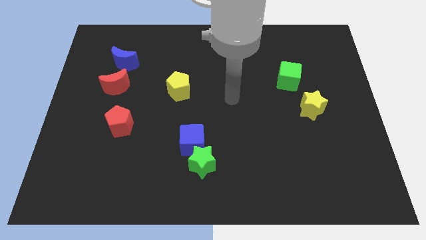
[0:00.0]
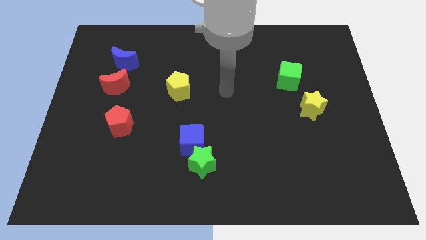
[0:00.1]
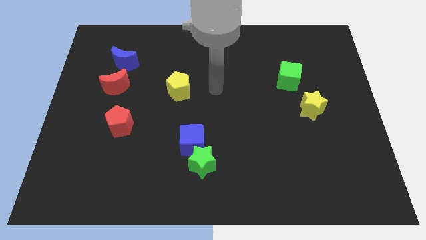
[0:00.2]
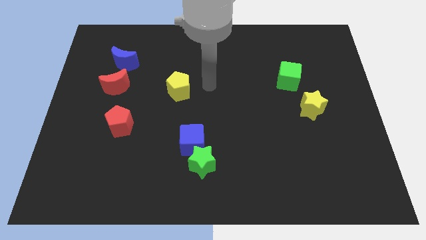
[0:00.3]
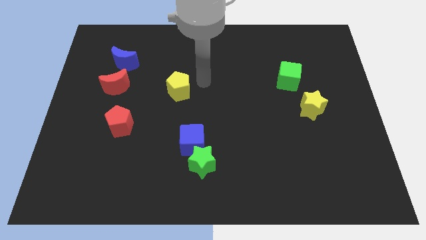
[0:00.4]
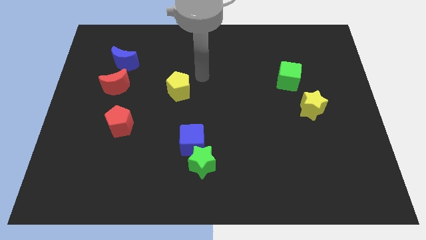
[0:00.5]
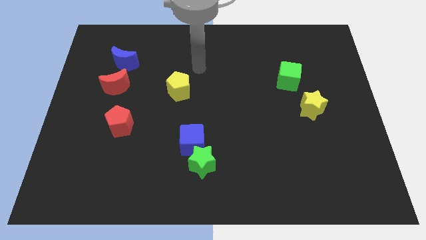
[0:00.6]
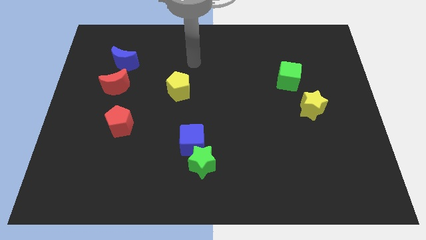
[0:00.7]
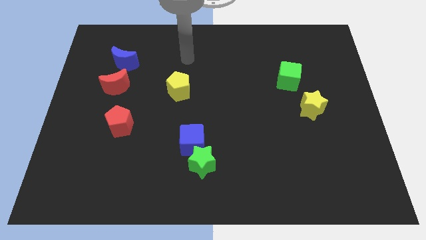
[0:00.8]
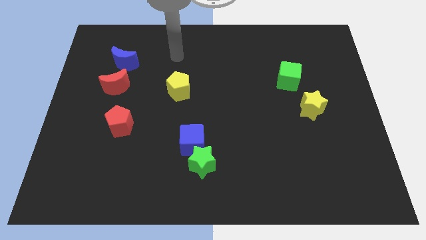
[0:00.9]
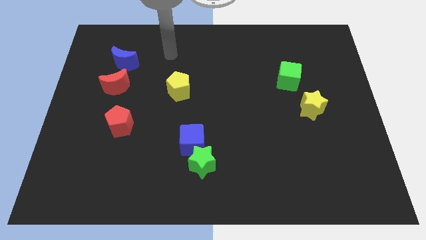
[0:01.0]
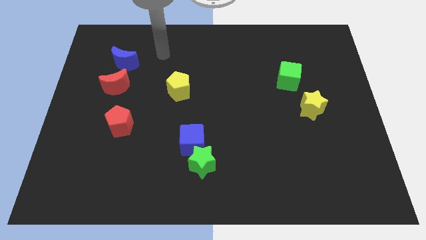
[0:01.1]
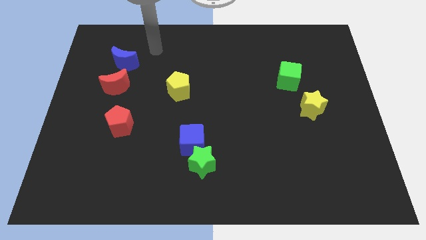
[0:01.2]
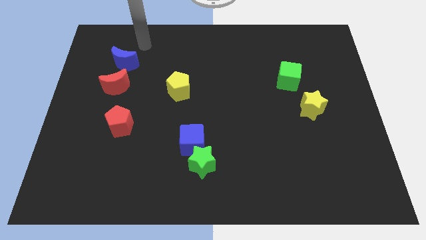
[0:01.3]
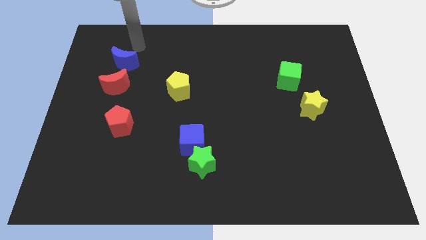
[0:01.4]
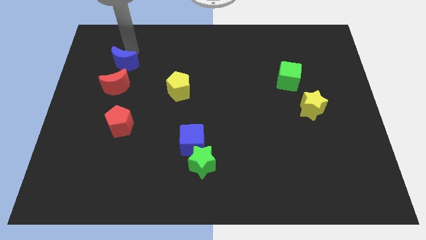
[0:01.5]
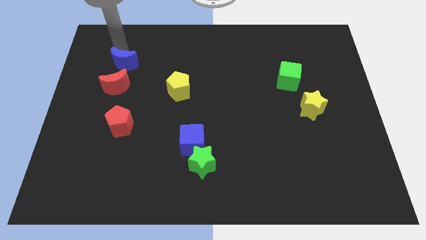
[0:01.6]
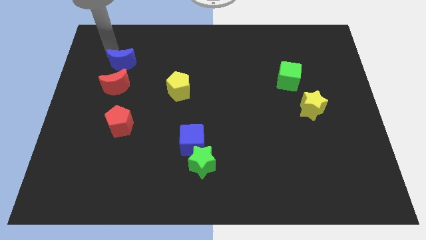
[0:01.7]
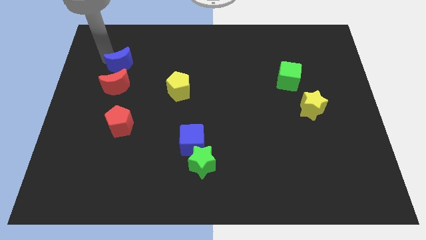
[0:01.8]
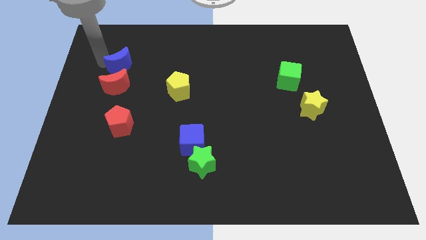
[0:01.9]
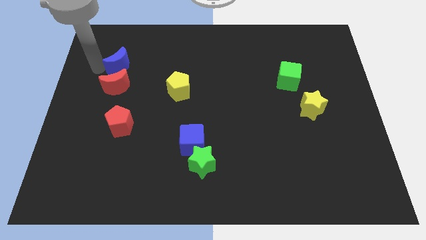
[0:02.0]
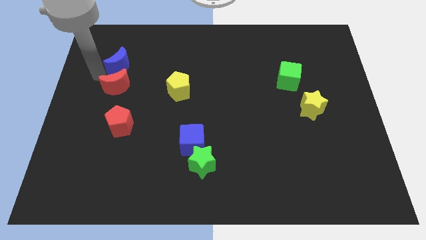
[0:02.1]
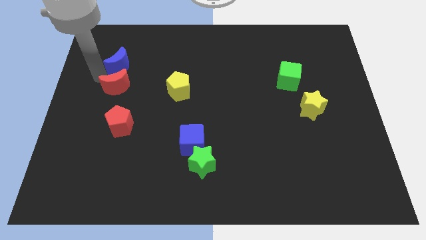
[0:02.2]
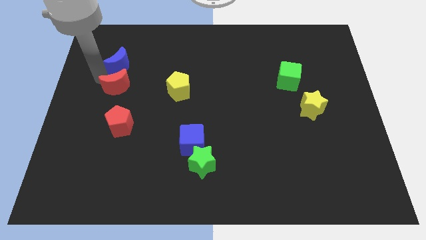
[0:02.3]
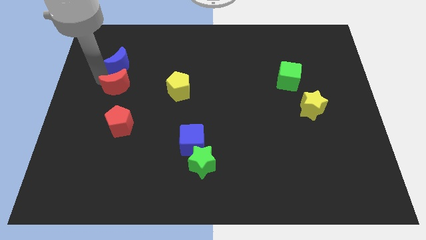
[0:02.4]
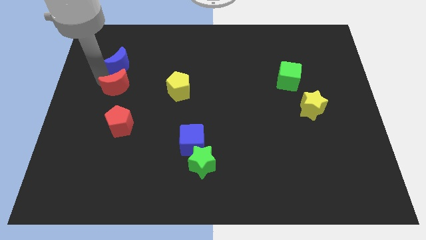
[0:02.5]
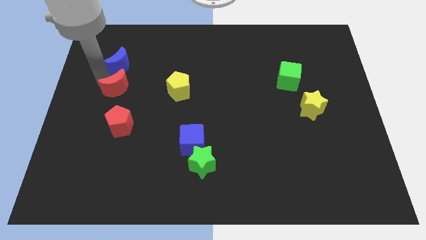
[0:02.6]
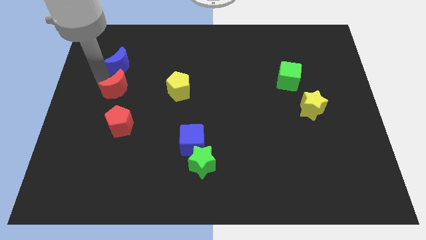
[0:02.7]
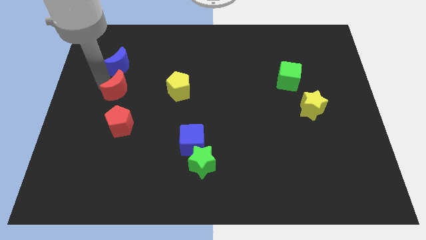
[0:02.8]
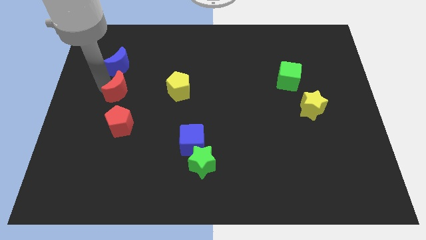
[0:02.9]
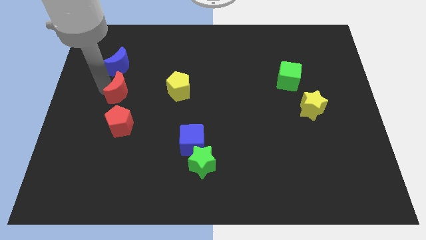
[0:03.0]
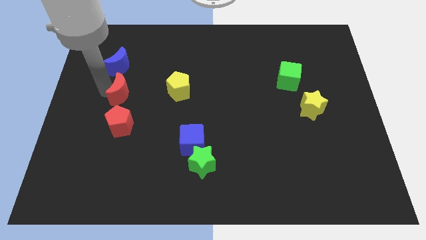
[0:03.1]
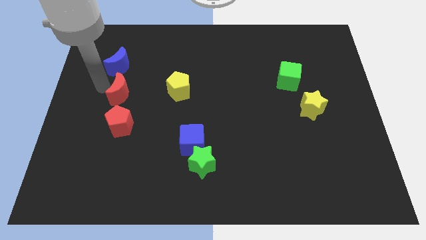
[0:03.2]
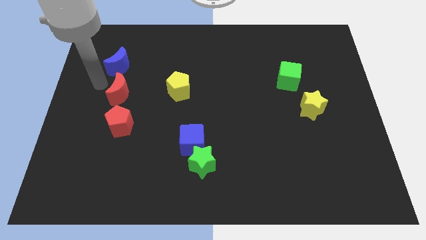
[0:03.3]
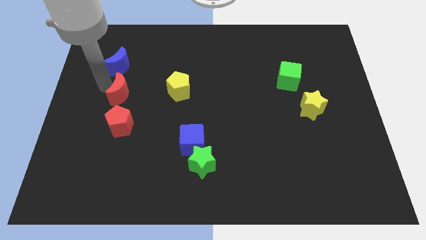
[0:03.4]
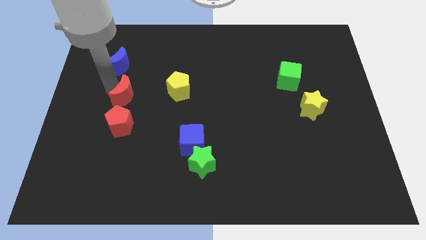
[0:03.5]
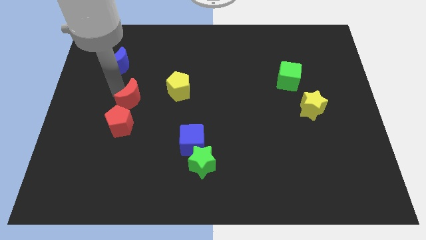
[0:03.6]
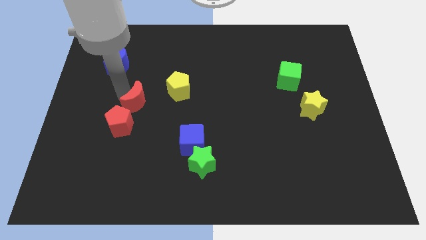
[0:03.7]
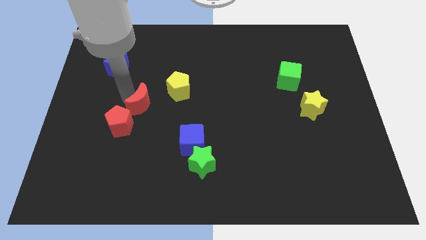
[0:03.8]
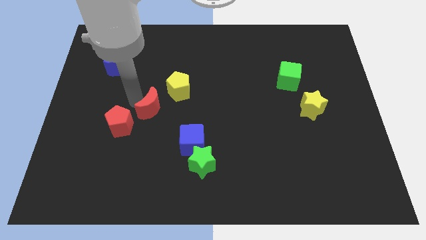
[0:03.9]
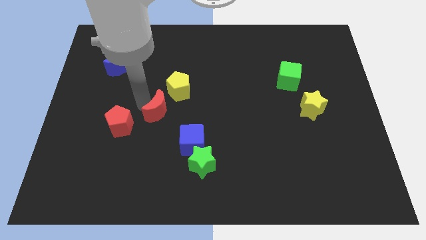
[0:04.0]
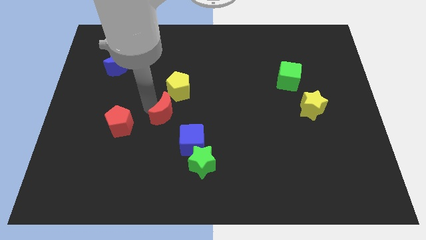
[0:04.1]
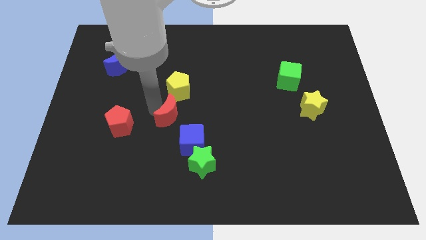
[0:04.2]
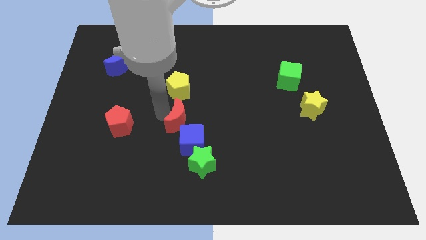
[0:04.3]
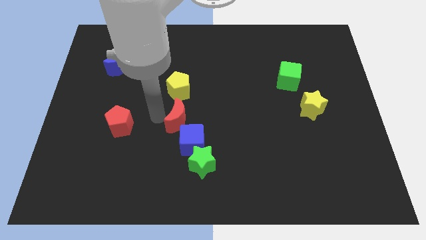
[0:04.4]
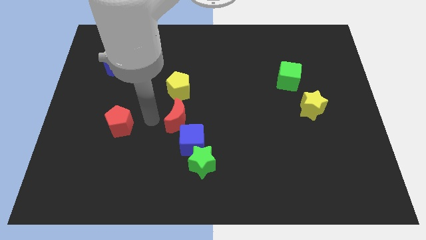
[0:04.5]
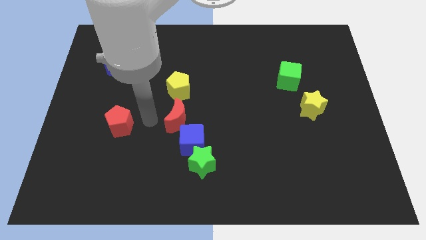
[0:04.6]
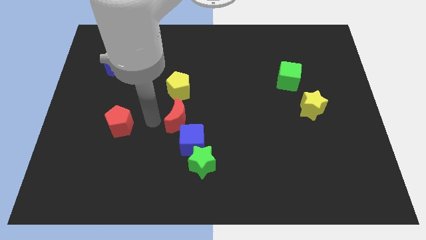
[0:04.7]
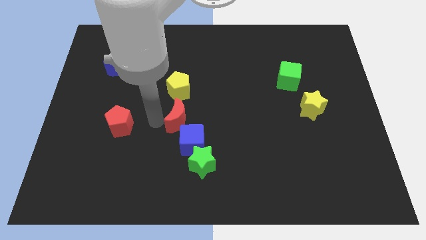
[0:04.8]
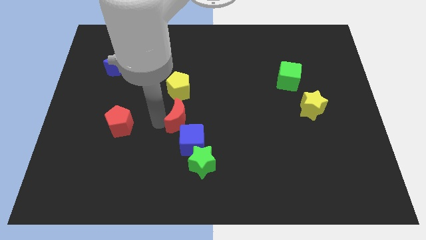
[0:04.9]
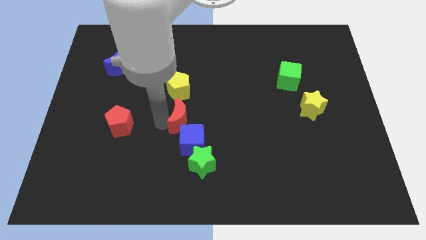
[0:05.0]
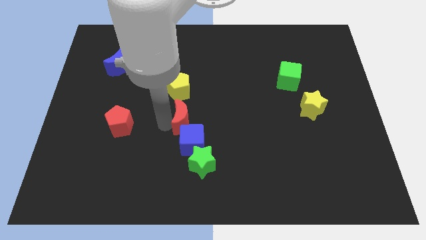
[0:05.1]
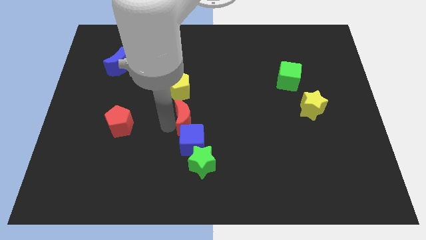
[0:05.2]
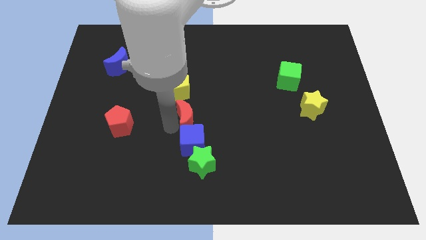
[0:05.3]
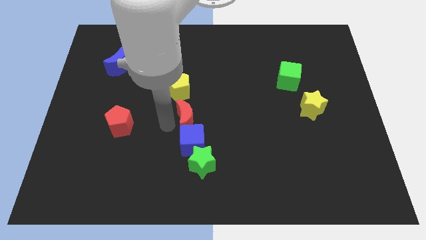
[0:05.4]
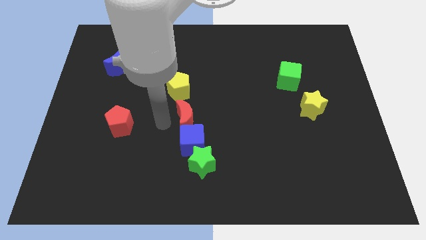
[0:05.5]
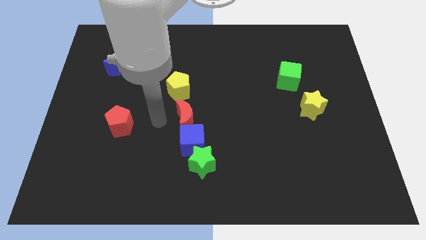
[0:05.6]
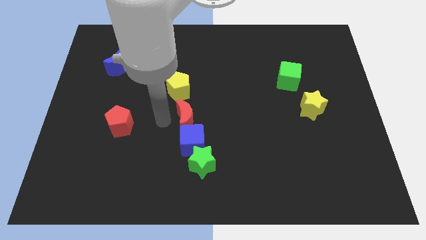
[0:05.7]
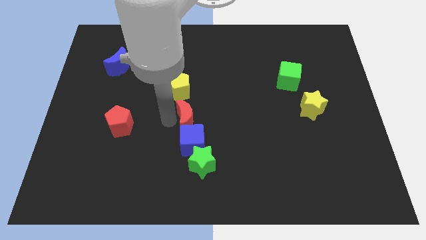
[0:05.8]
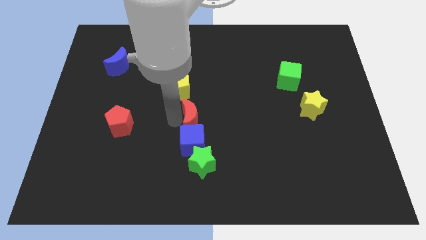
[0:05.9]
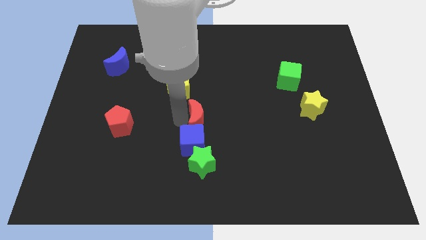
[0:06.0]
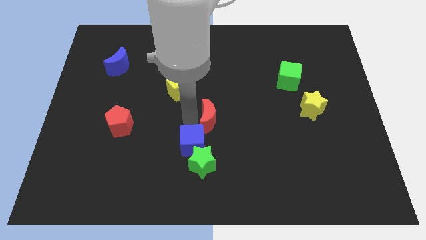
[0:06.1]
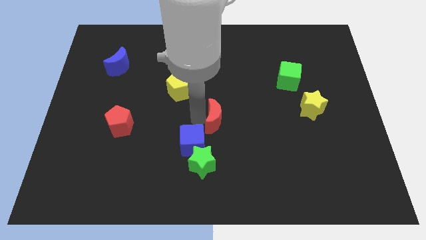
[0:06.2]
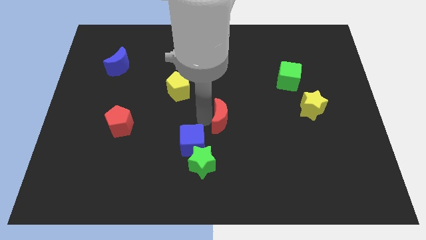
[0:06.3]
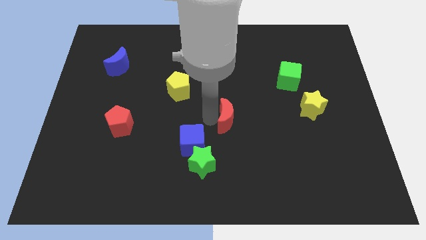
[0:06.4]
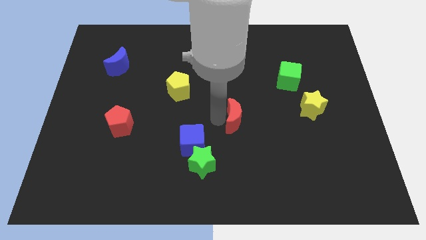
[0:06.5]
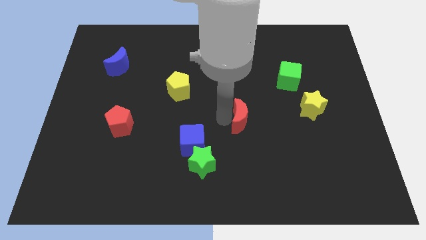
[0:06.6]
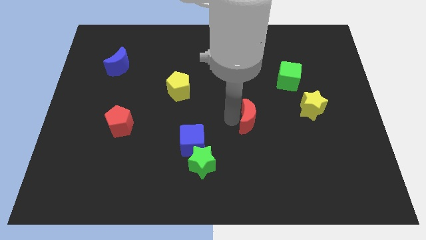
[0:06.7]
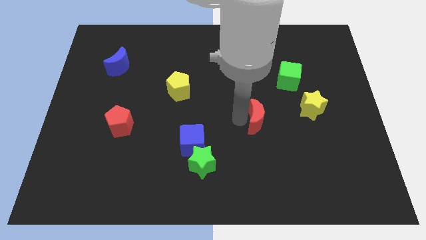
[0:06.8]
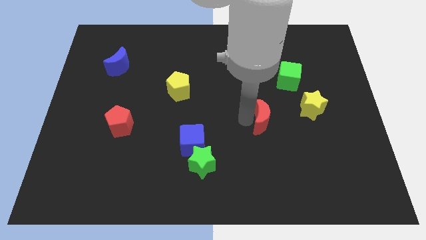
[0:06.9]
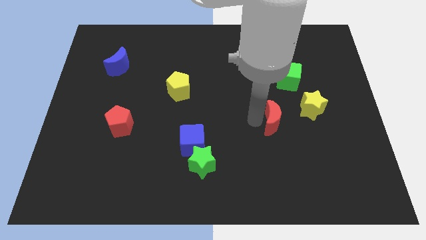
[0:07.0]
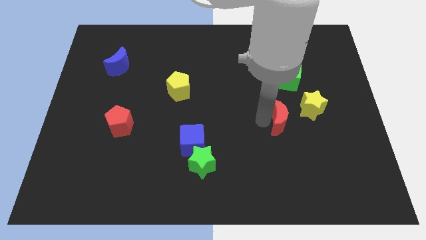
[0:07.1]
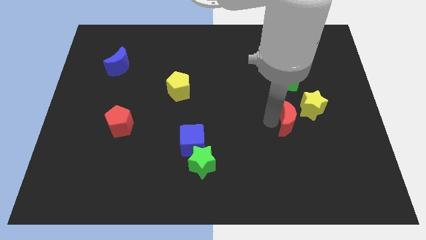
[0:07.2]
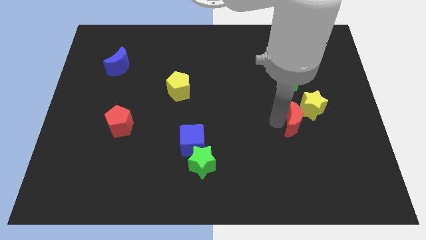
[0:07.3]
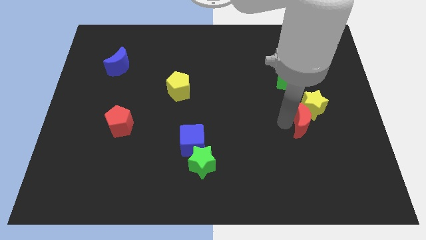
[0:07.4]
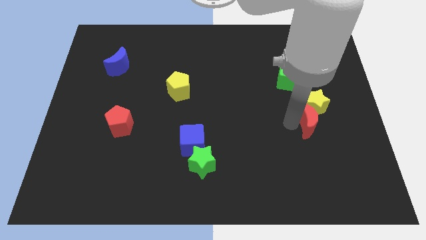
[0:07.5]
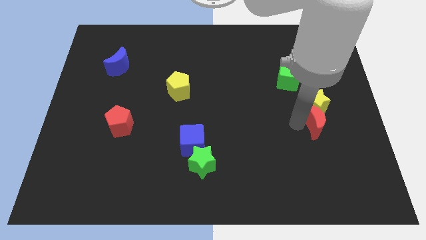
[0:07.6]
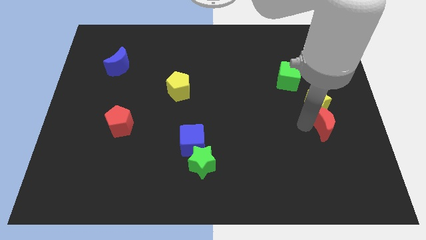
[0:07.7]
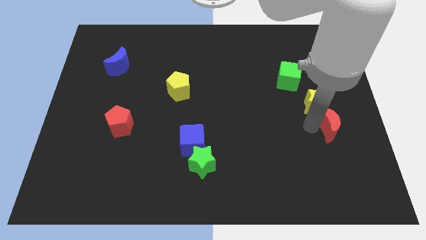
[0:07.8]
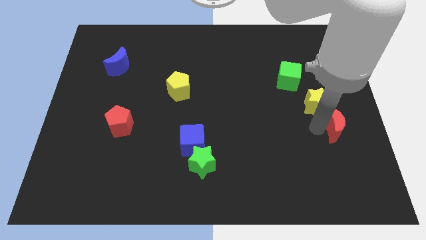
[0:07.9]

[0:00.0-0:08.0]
move the red moon to the right side of the board
